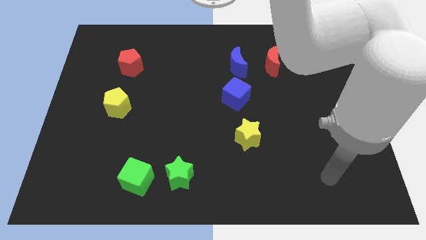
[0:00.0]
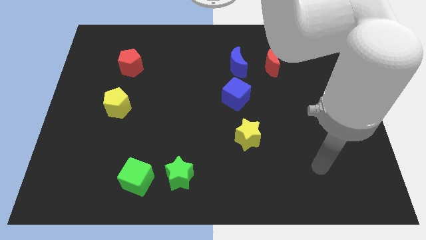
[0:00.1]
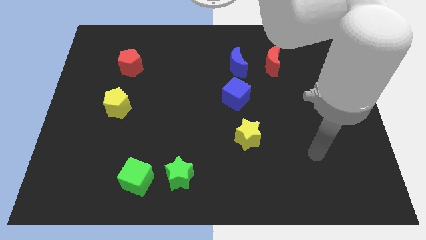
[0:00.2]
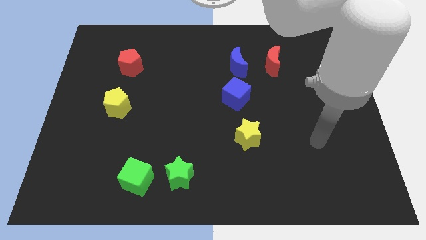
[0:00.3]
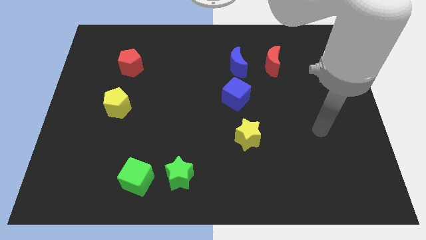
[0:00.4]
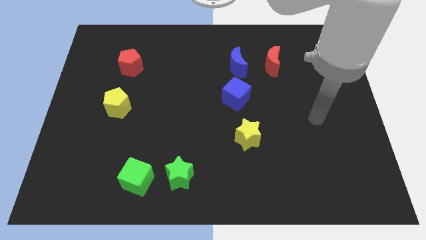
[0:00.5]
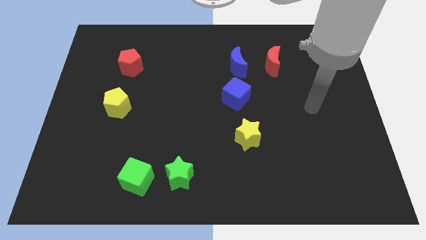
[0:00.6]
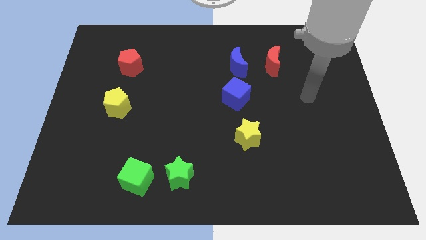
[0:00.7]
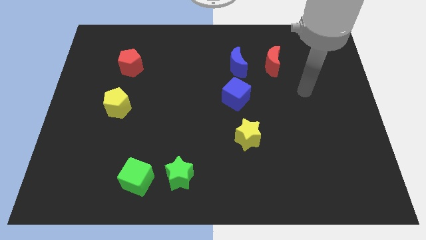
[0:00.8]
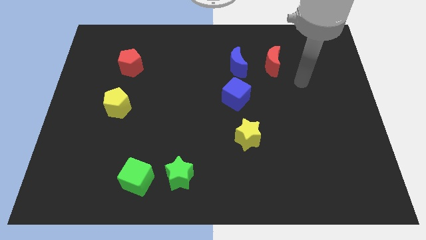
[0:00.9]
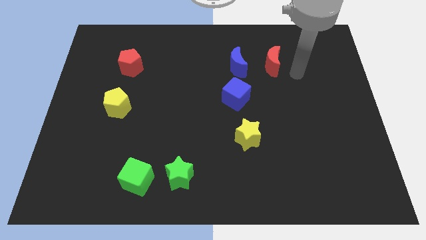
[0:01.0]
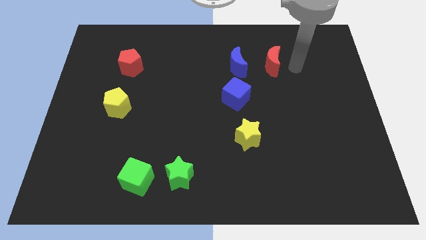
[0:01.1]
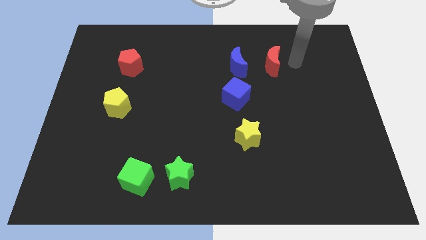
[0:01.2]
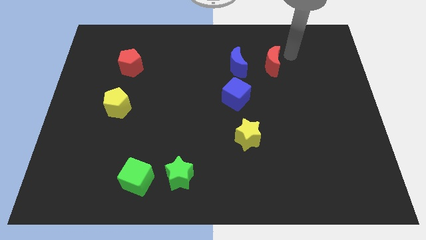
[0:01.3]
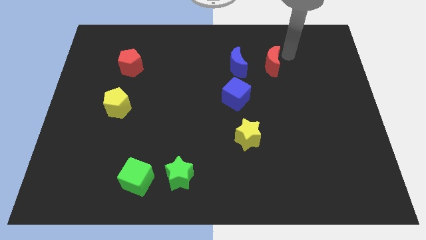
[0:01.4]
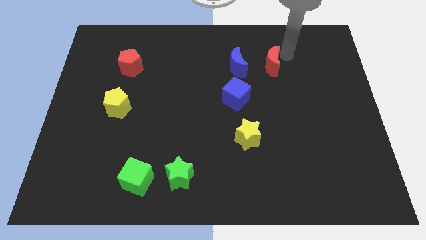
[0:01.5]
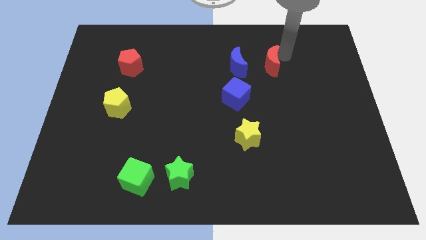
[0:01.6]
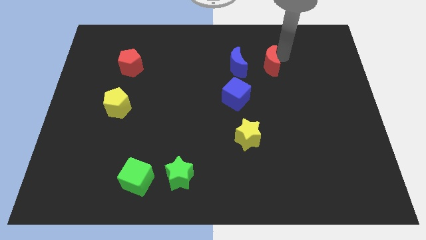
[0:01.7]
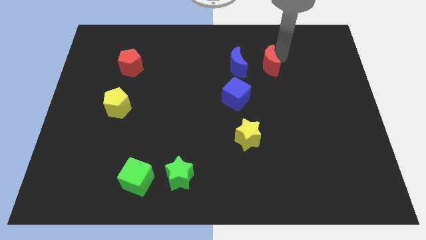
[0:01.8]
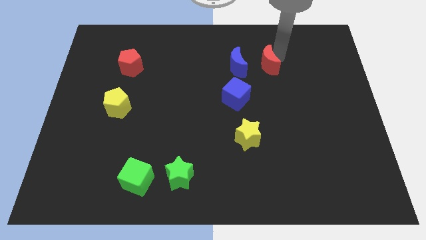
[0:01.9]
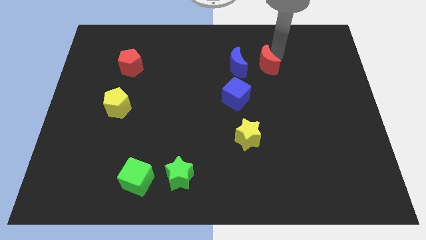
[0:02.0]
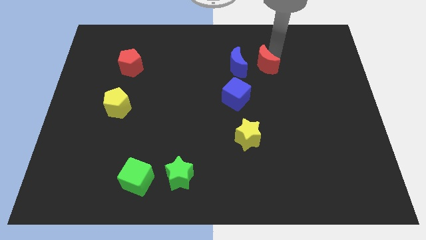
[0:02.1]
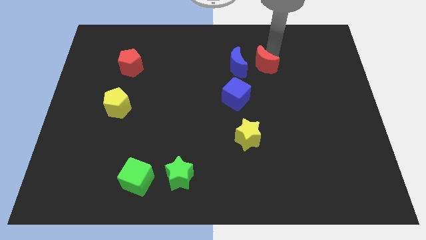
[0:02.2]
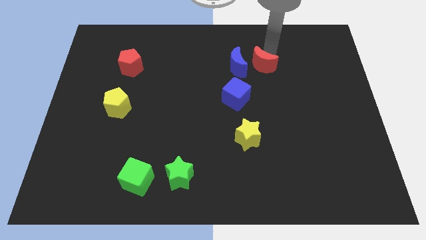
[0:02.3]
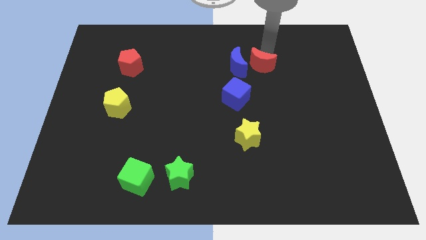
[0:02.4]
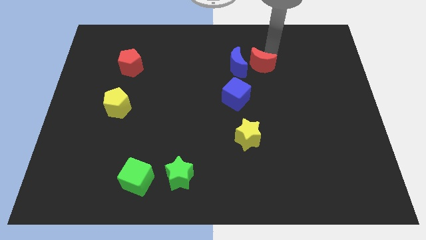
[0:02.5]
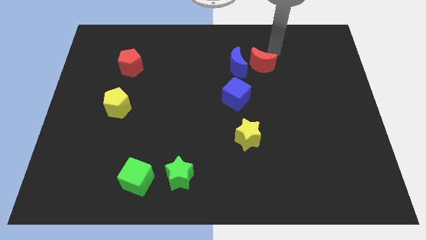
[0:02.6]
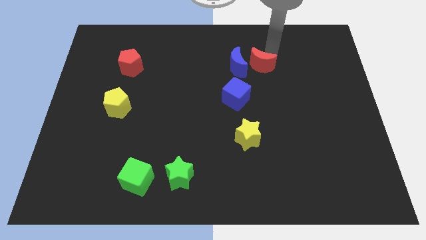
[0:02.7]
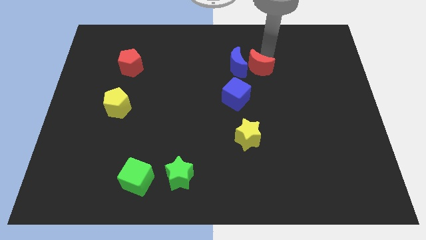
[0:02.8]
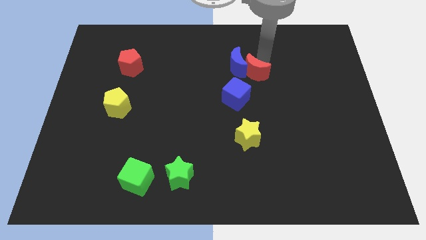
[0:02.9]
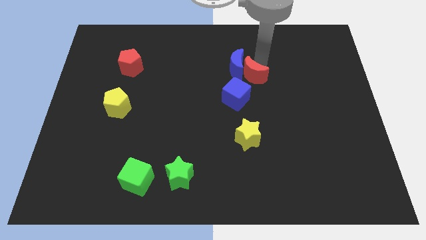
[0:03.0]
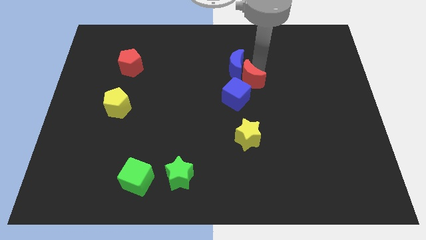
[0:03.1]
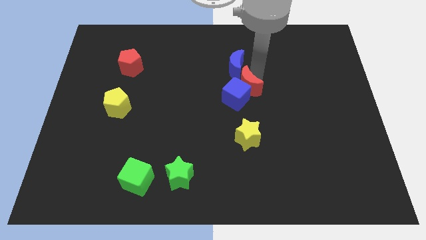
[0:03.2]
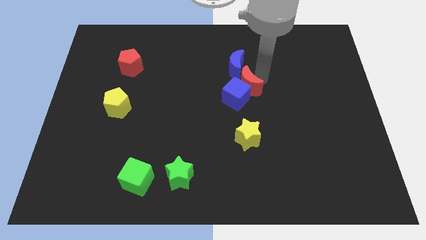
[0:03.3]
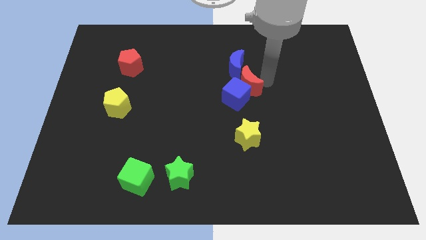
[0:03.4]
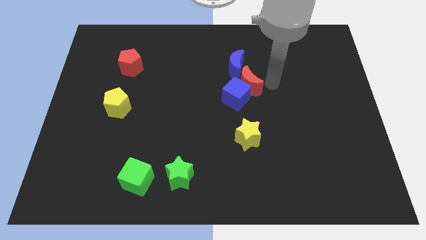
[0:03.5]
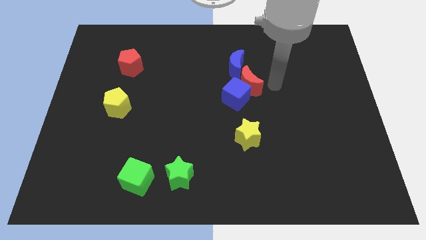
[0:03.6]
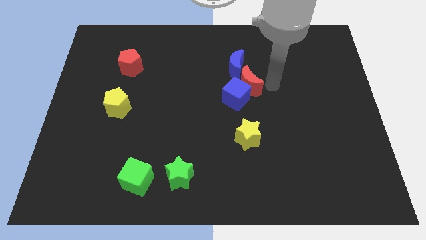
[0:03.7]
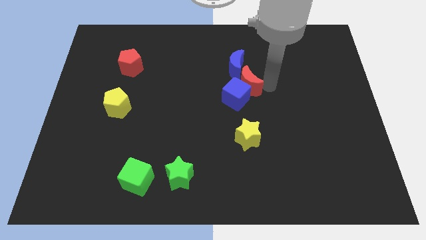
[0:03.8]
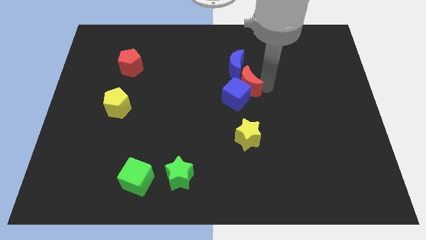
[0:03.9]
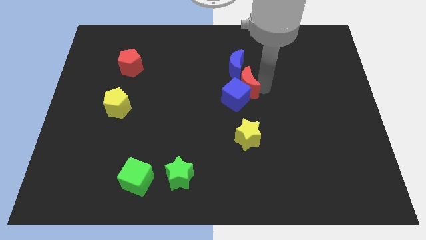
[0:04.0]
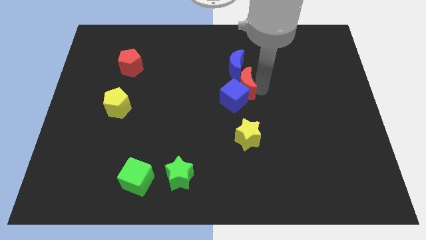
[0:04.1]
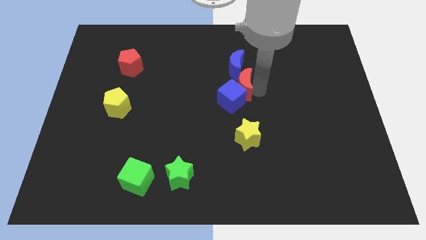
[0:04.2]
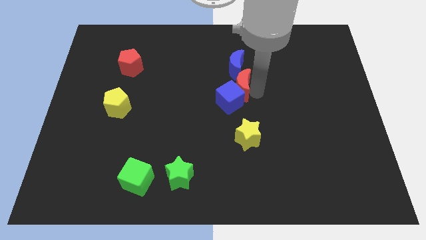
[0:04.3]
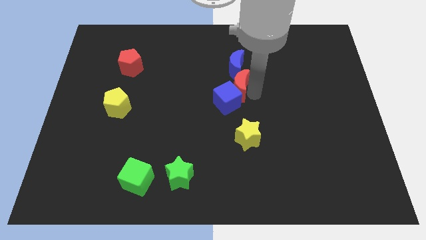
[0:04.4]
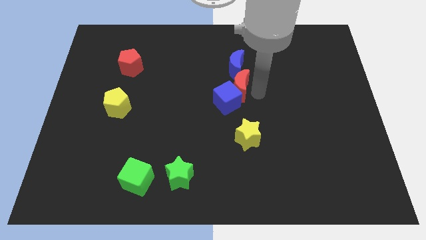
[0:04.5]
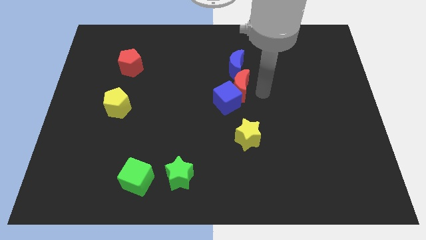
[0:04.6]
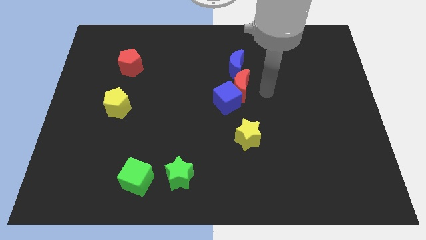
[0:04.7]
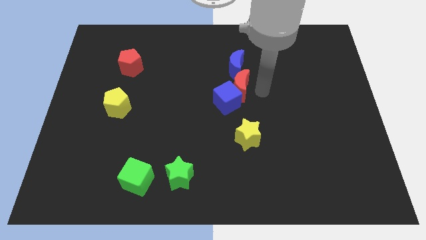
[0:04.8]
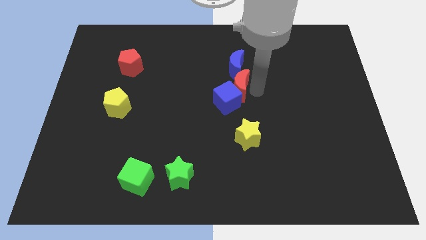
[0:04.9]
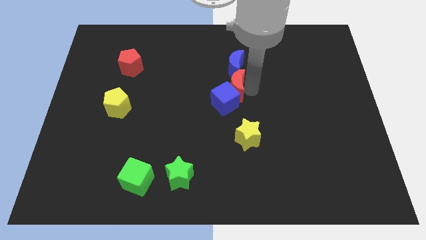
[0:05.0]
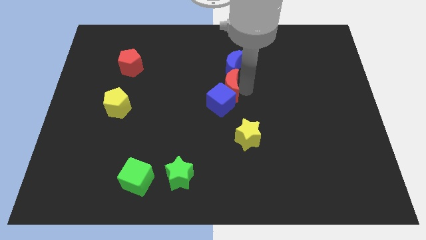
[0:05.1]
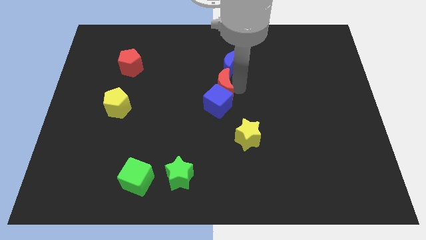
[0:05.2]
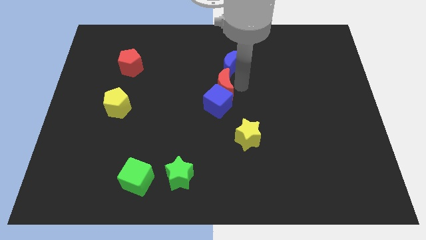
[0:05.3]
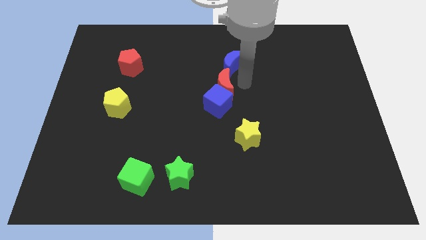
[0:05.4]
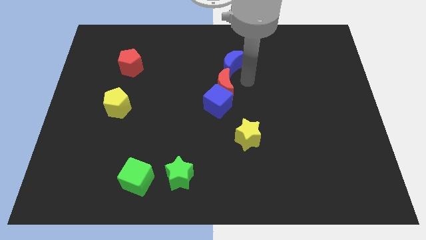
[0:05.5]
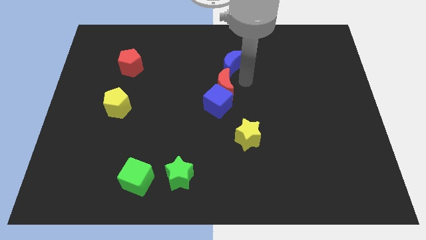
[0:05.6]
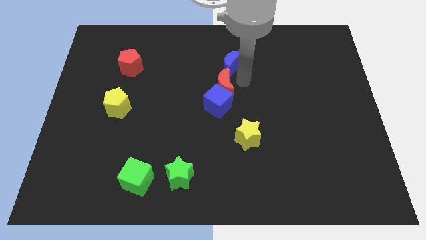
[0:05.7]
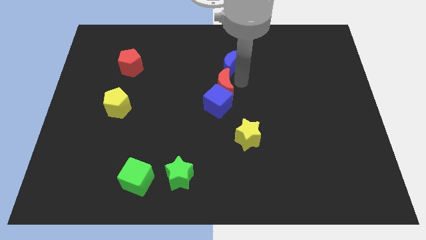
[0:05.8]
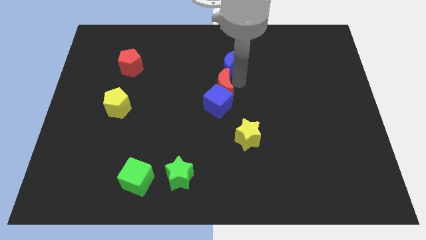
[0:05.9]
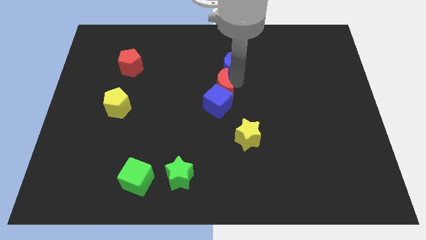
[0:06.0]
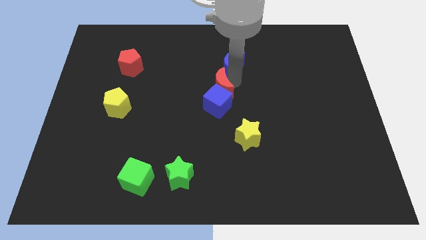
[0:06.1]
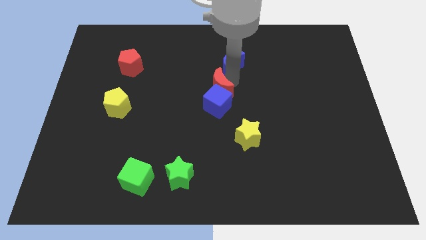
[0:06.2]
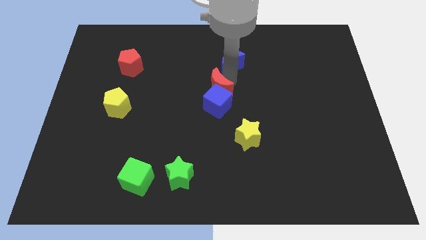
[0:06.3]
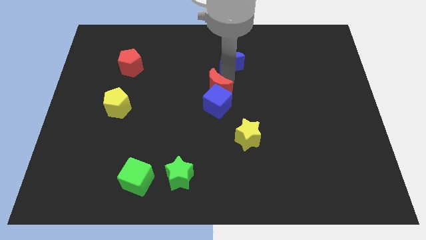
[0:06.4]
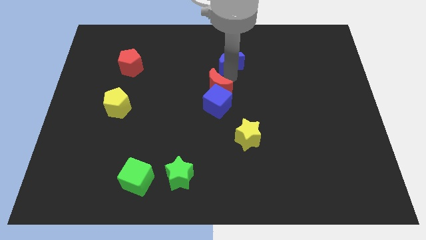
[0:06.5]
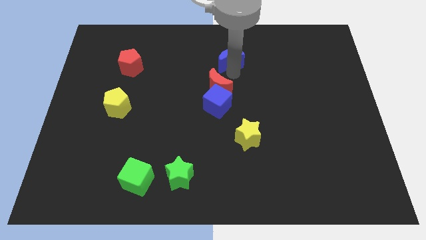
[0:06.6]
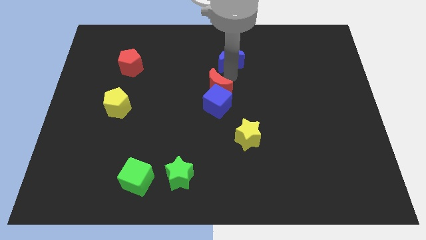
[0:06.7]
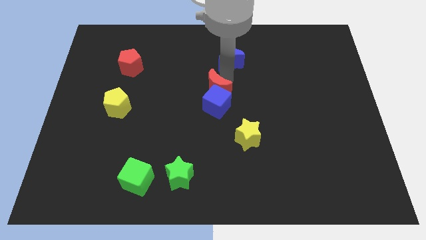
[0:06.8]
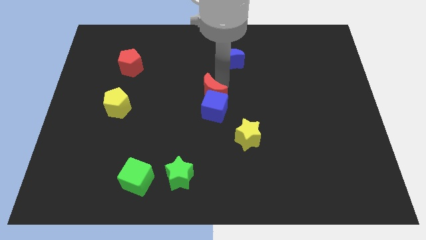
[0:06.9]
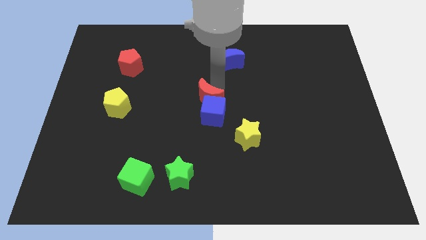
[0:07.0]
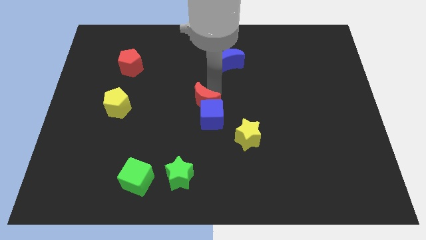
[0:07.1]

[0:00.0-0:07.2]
push the red moon down and then left

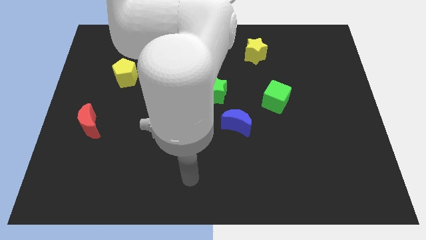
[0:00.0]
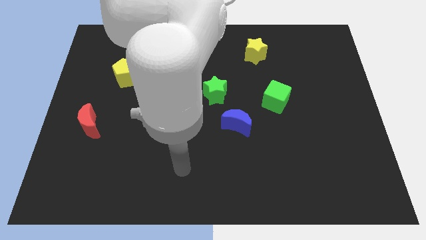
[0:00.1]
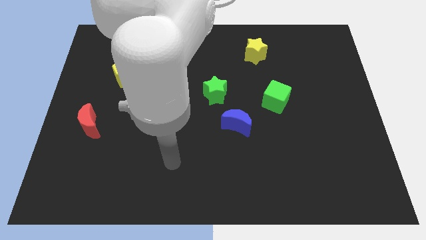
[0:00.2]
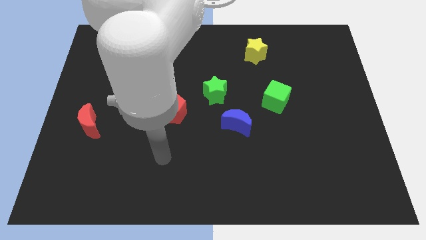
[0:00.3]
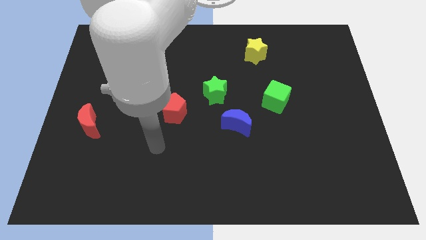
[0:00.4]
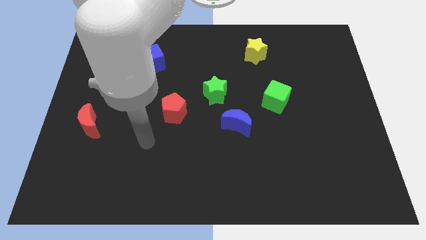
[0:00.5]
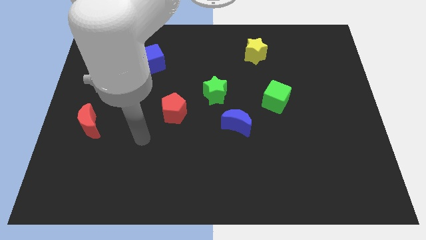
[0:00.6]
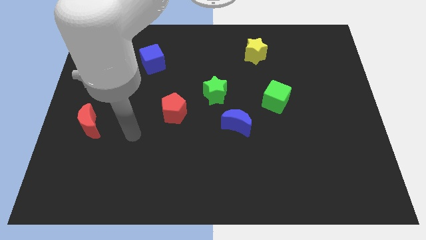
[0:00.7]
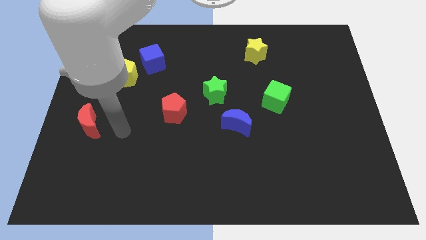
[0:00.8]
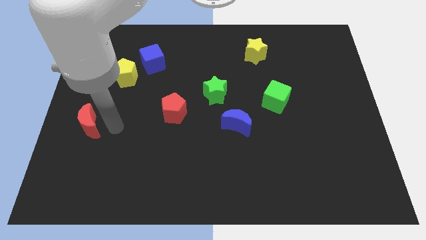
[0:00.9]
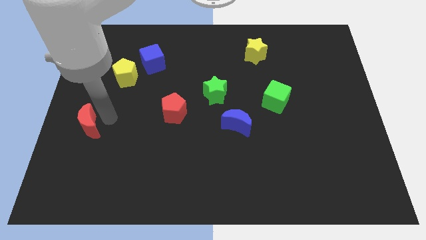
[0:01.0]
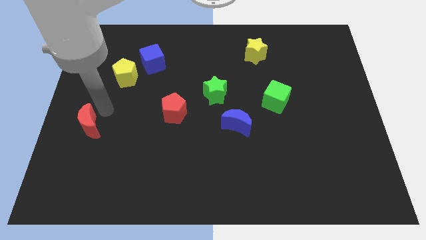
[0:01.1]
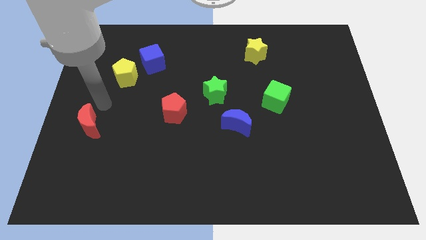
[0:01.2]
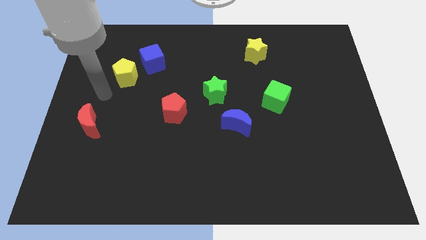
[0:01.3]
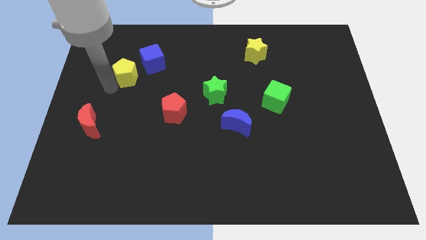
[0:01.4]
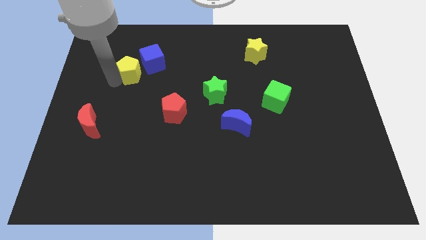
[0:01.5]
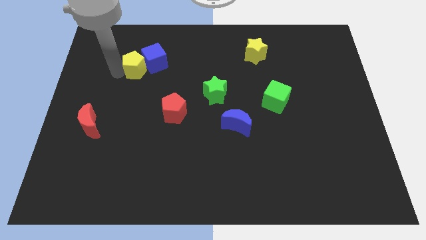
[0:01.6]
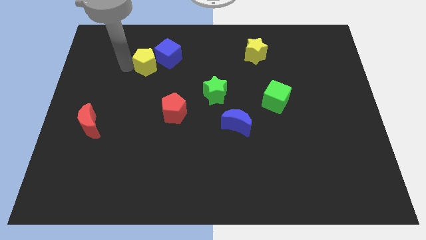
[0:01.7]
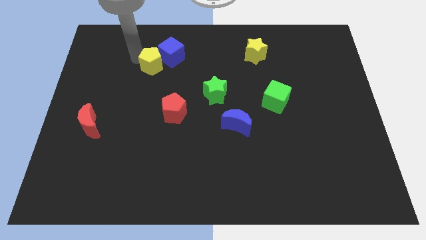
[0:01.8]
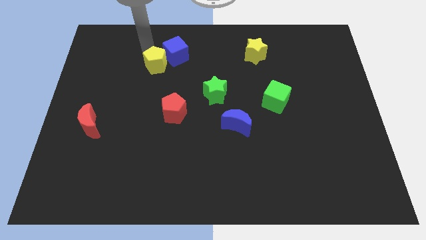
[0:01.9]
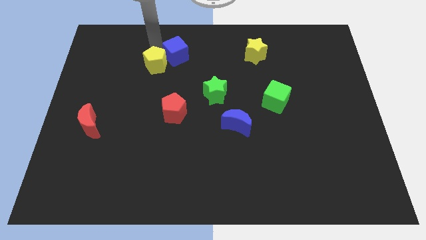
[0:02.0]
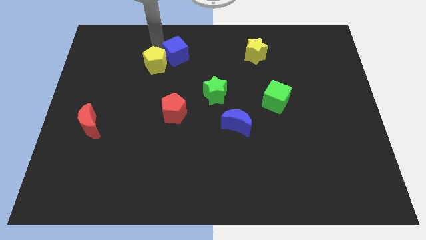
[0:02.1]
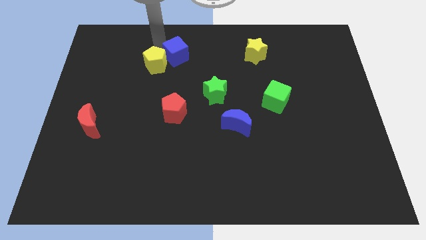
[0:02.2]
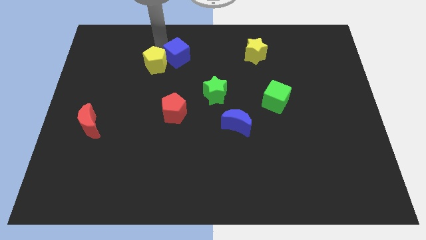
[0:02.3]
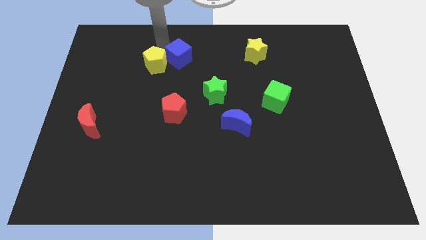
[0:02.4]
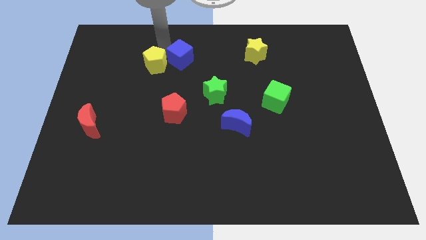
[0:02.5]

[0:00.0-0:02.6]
slightly push the blue cube to the right
